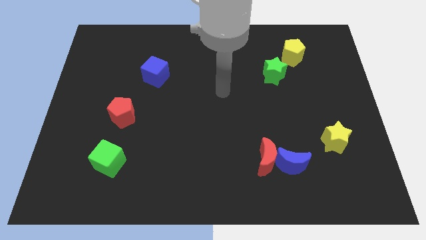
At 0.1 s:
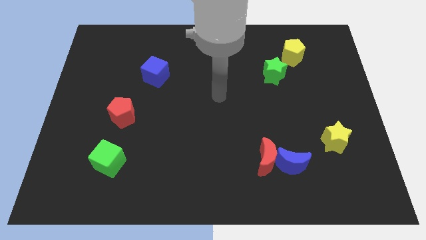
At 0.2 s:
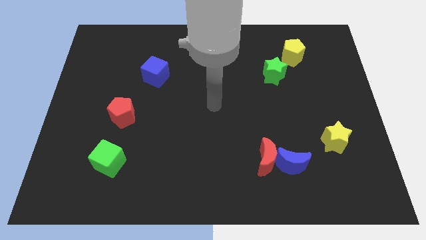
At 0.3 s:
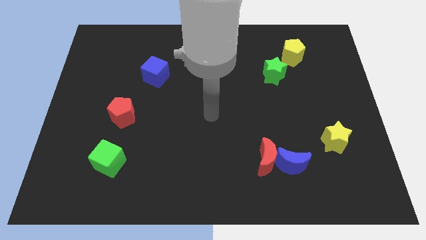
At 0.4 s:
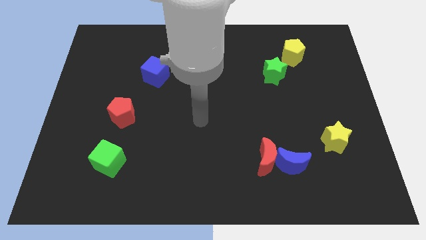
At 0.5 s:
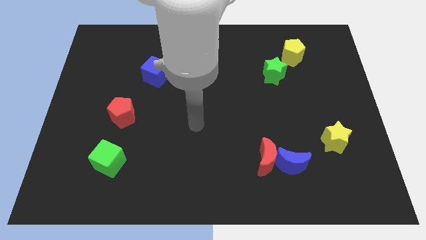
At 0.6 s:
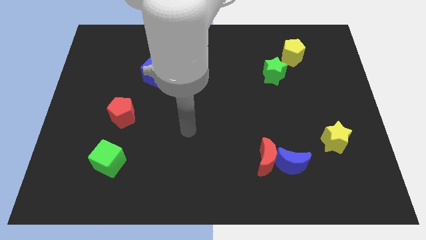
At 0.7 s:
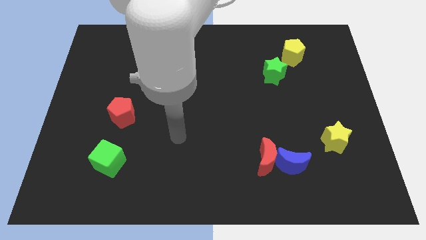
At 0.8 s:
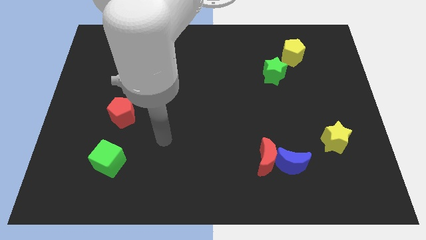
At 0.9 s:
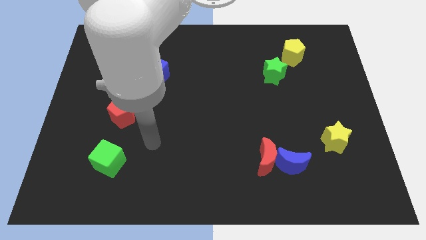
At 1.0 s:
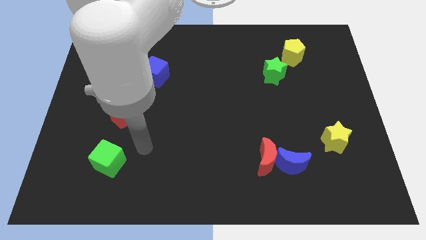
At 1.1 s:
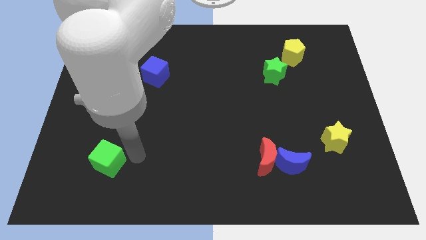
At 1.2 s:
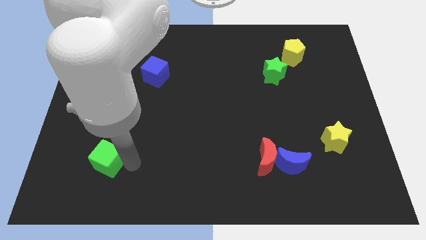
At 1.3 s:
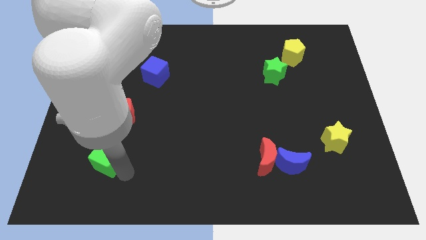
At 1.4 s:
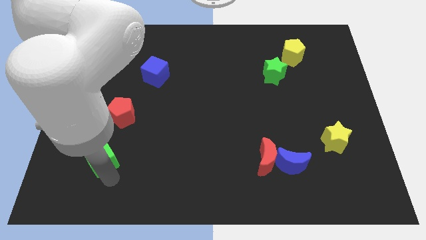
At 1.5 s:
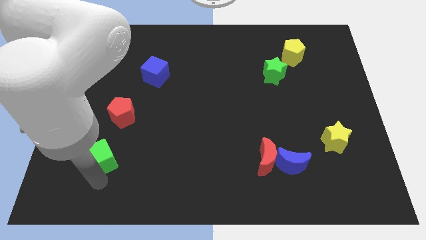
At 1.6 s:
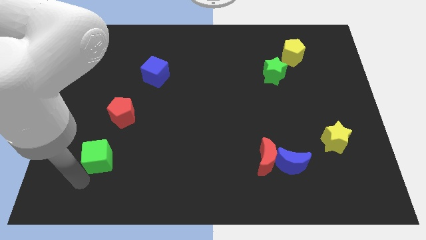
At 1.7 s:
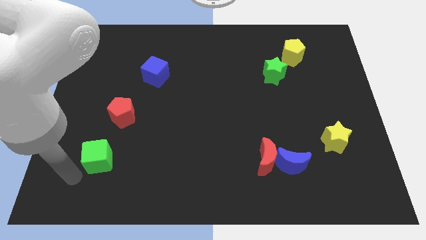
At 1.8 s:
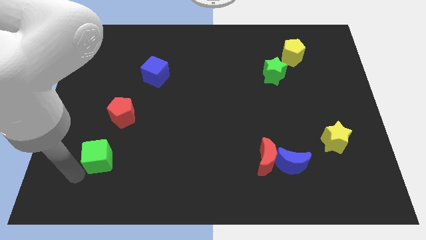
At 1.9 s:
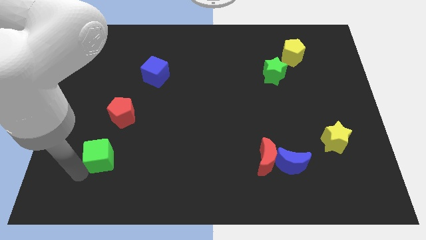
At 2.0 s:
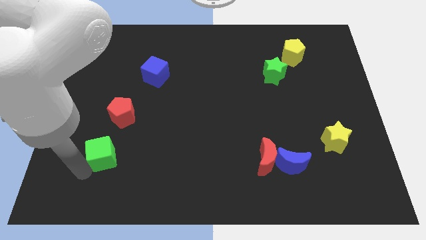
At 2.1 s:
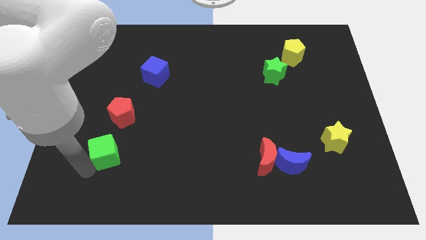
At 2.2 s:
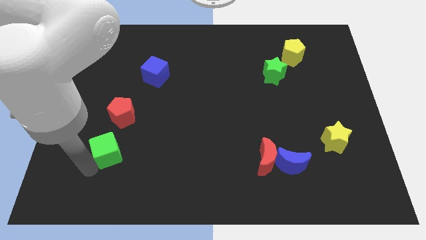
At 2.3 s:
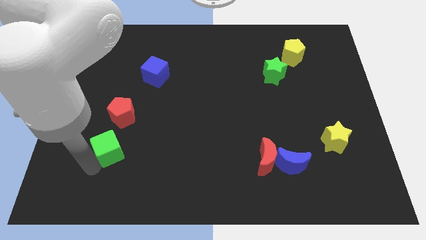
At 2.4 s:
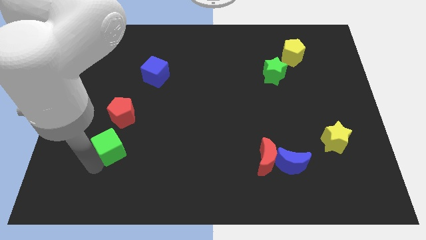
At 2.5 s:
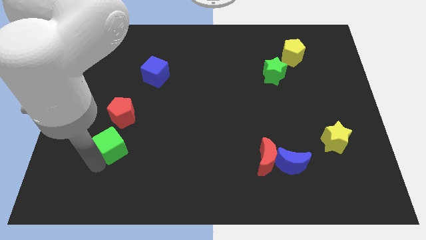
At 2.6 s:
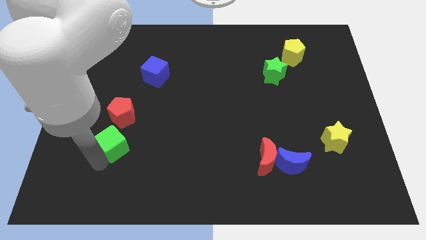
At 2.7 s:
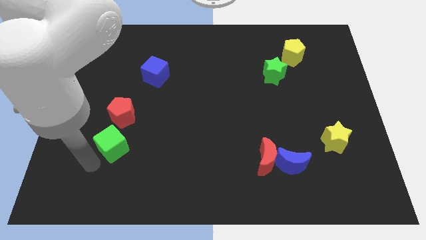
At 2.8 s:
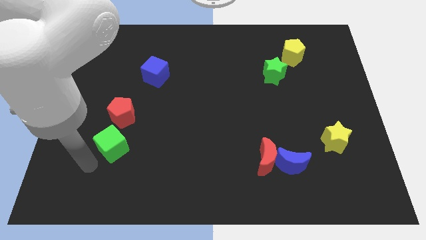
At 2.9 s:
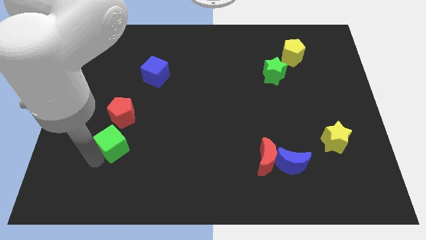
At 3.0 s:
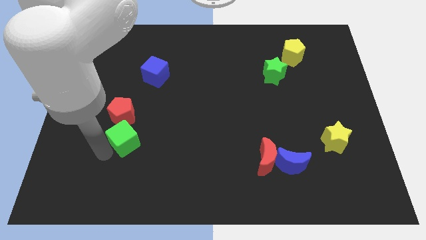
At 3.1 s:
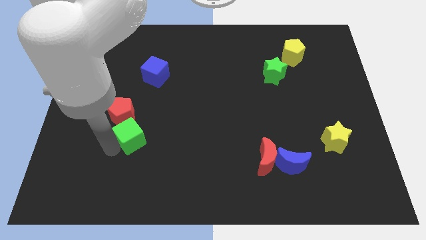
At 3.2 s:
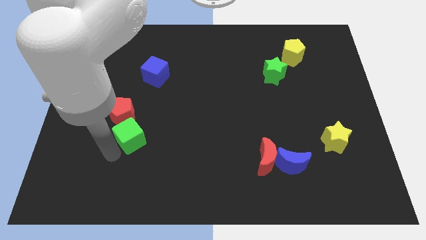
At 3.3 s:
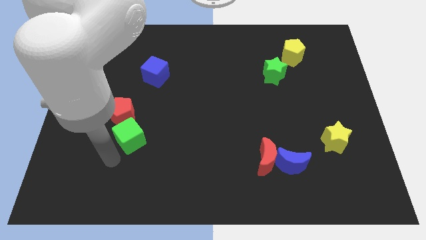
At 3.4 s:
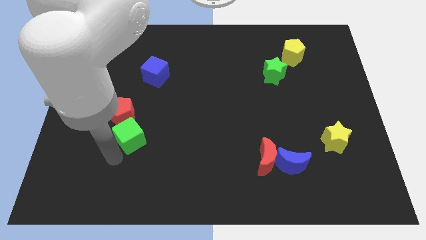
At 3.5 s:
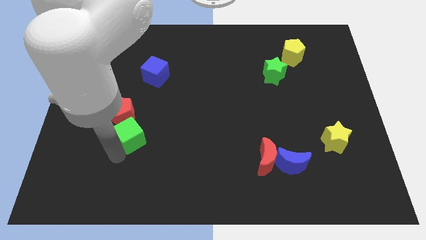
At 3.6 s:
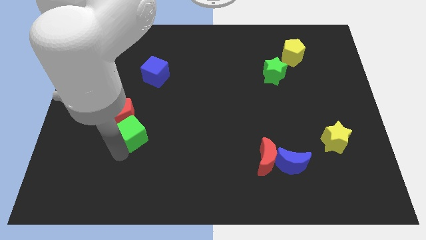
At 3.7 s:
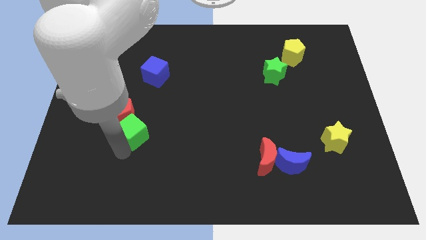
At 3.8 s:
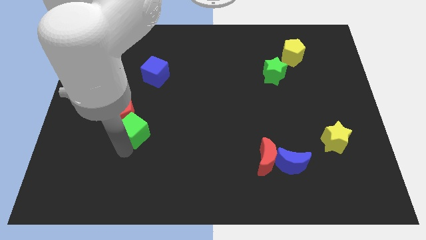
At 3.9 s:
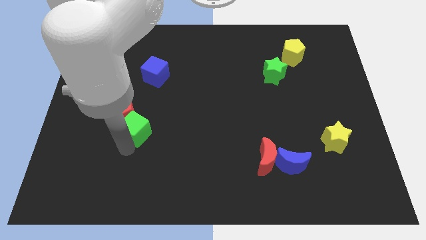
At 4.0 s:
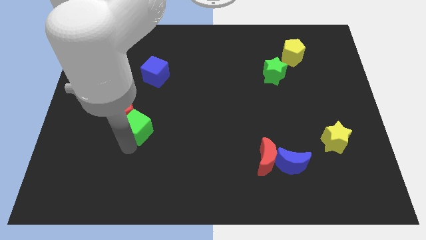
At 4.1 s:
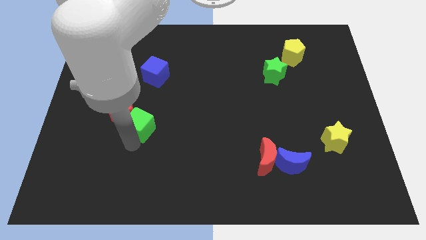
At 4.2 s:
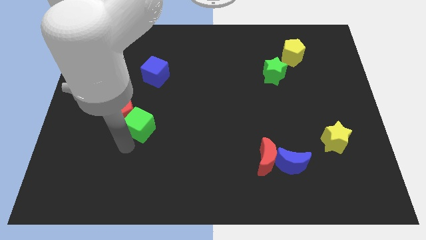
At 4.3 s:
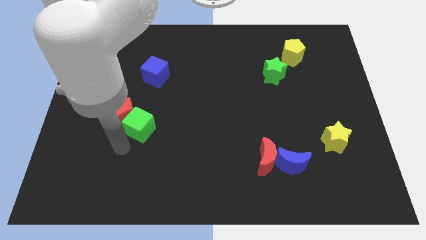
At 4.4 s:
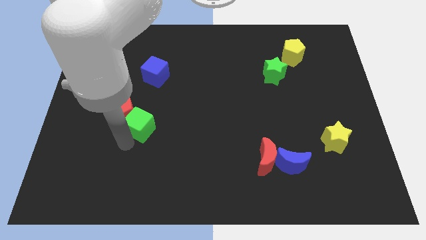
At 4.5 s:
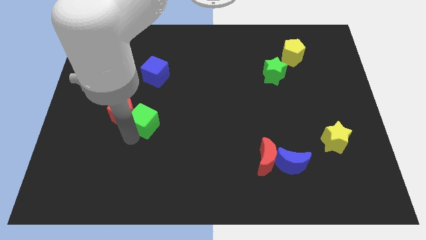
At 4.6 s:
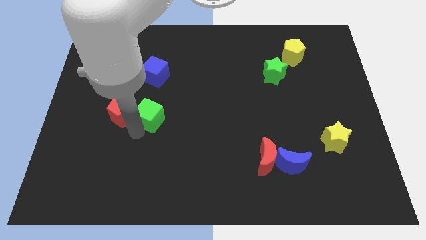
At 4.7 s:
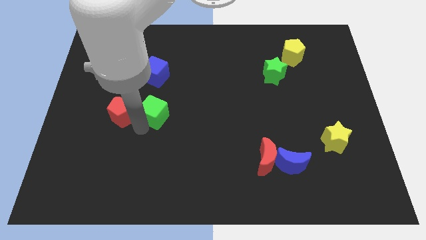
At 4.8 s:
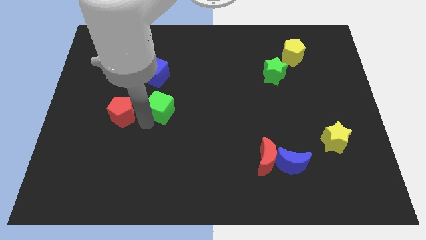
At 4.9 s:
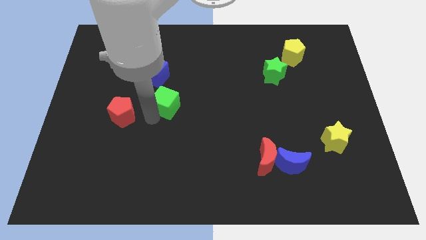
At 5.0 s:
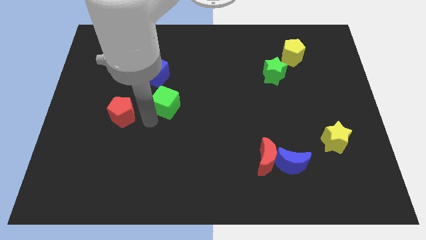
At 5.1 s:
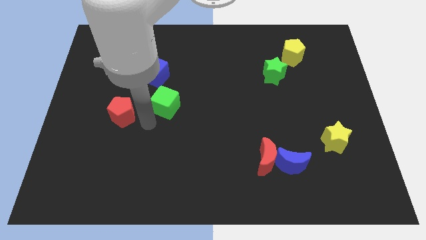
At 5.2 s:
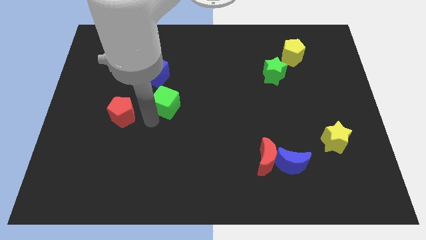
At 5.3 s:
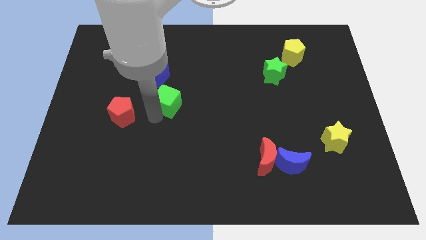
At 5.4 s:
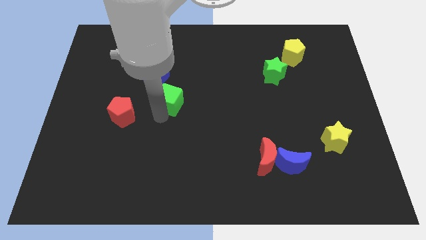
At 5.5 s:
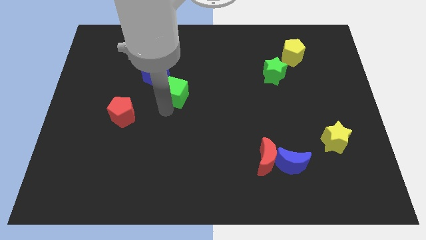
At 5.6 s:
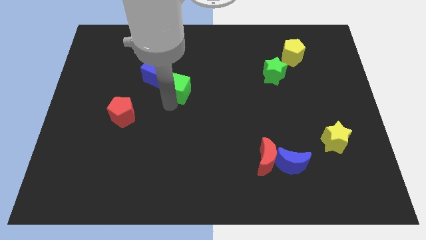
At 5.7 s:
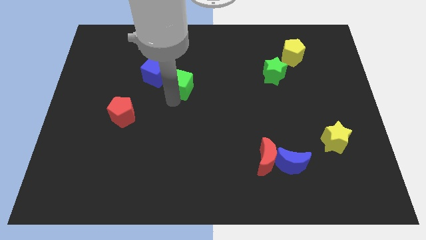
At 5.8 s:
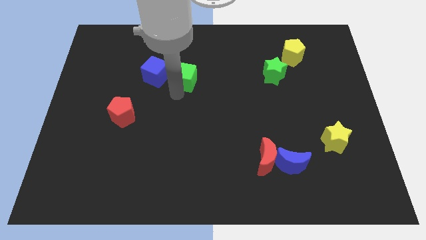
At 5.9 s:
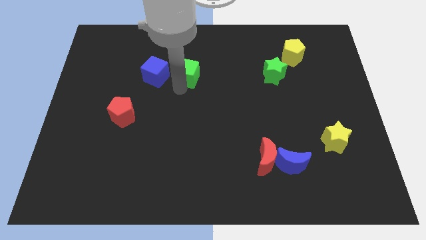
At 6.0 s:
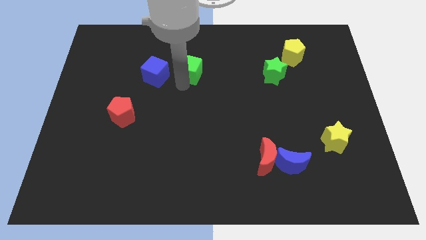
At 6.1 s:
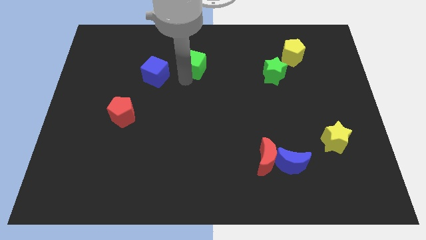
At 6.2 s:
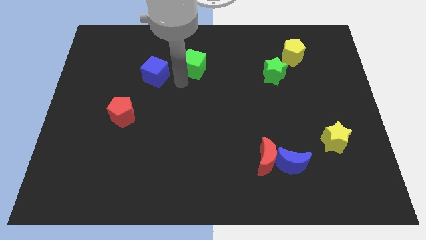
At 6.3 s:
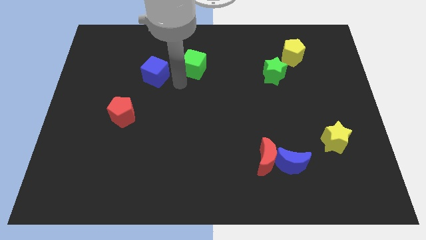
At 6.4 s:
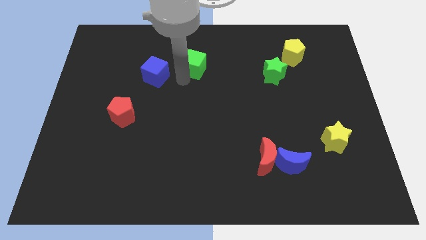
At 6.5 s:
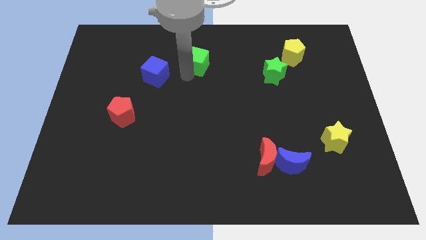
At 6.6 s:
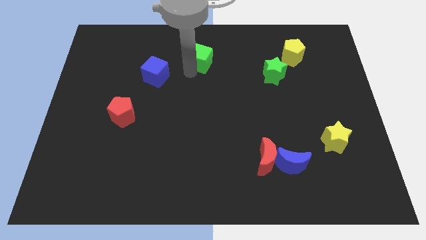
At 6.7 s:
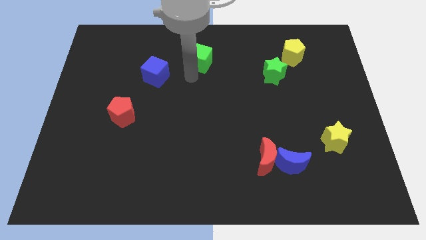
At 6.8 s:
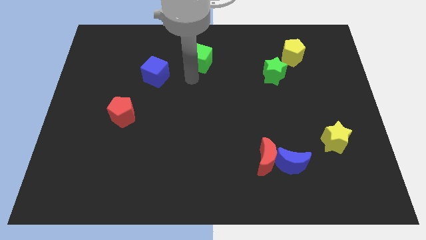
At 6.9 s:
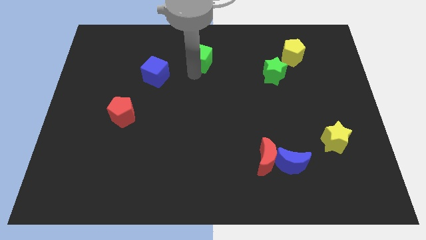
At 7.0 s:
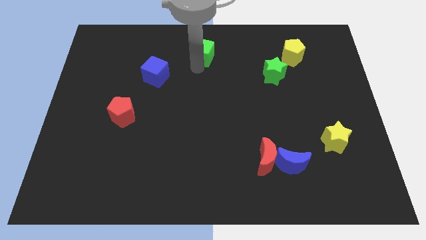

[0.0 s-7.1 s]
push the green cube to the towards your base
